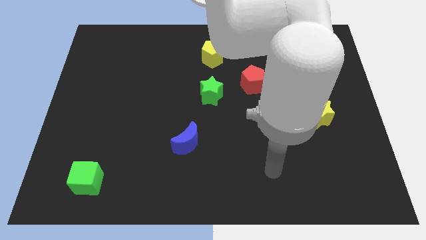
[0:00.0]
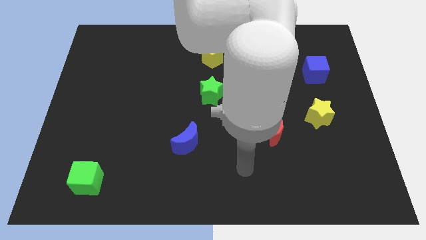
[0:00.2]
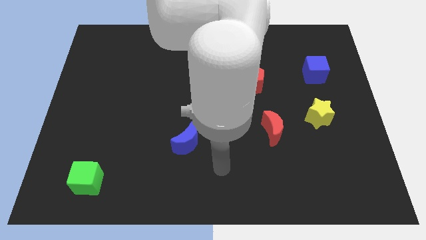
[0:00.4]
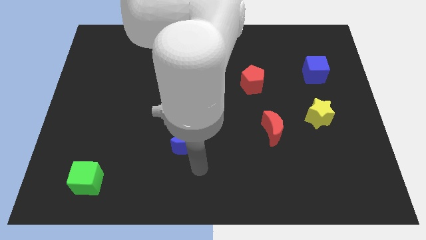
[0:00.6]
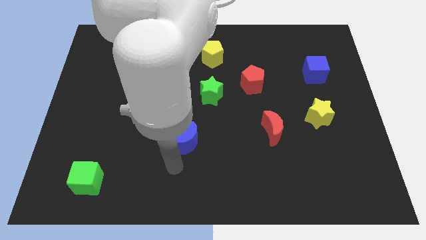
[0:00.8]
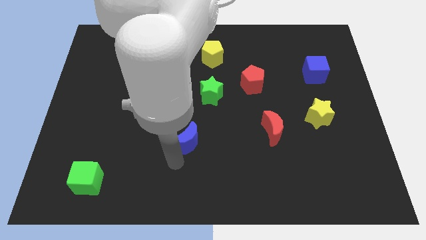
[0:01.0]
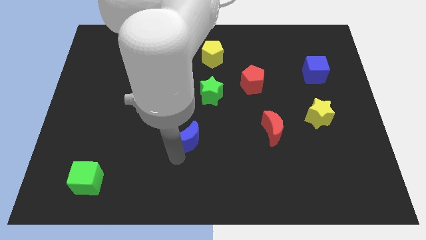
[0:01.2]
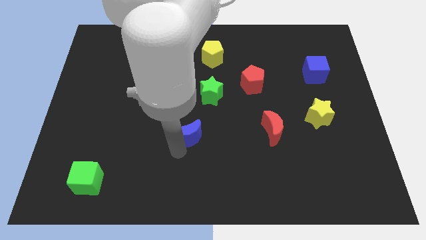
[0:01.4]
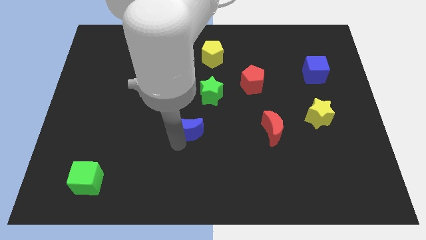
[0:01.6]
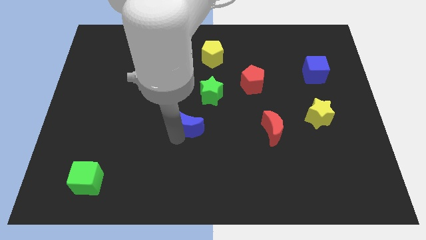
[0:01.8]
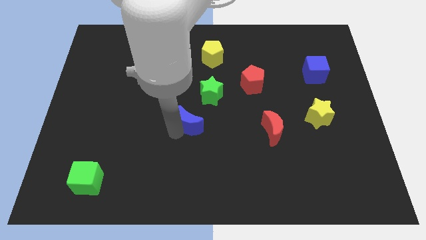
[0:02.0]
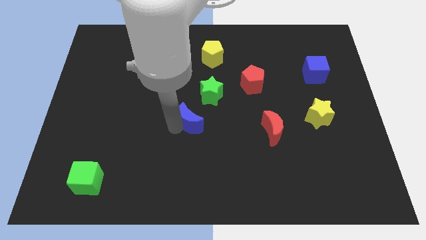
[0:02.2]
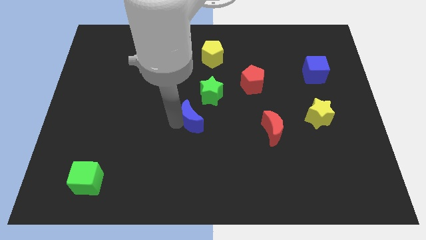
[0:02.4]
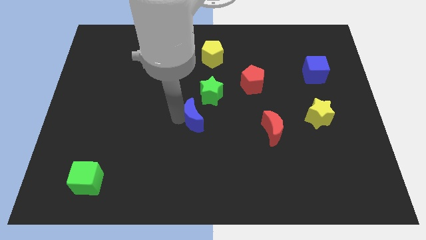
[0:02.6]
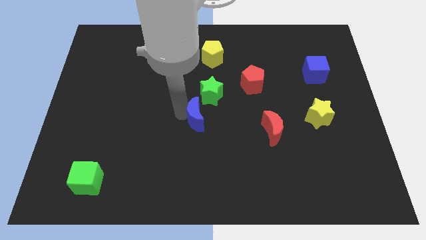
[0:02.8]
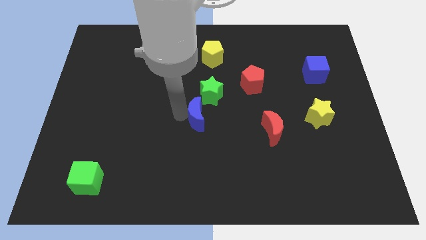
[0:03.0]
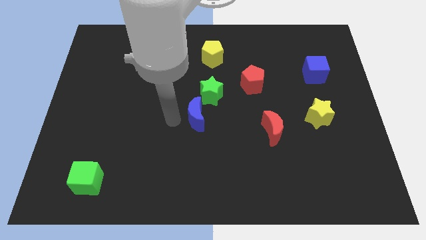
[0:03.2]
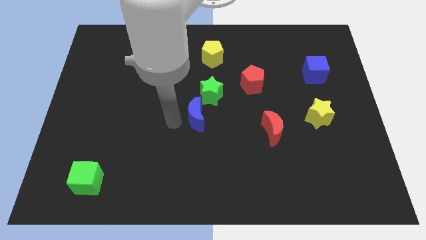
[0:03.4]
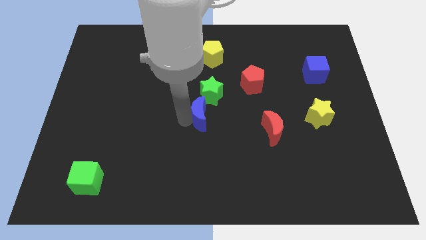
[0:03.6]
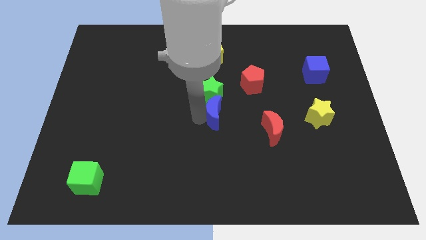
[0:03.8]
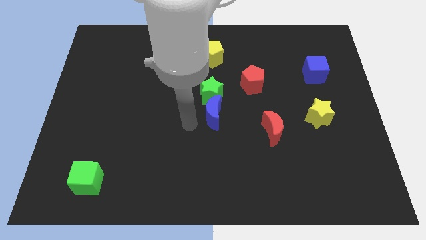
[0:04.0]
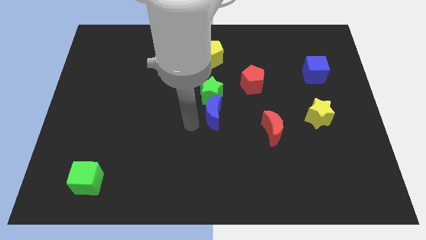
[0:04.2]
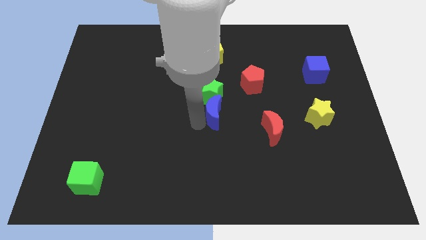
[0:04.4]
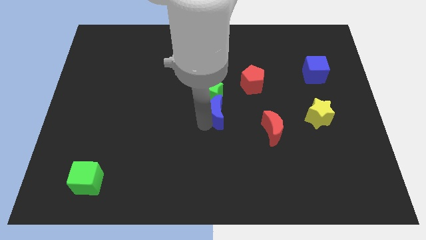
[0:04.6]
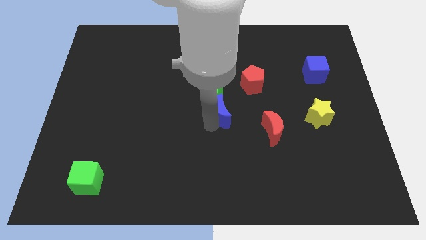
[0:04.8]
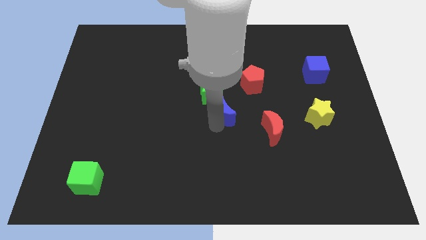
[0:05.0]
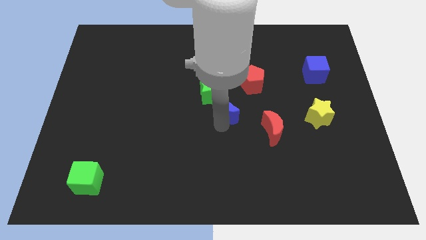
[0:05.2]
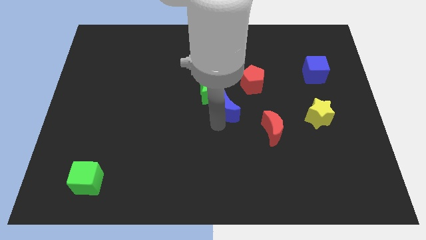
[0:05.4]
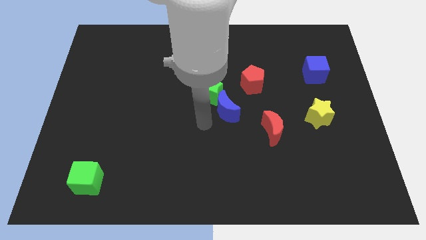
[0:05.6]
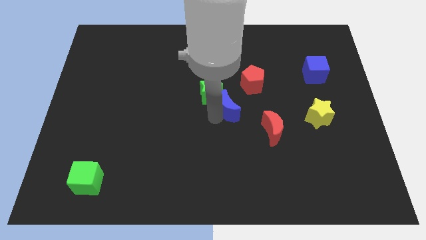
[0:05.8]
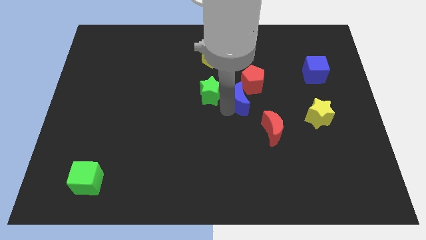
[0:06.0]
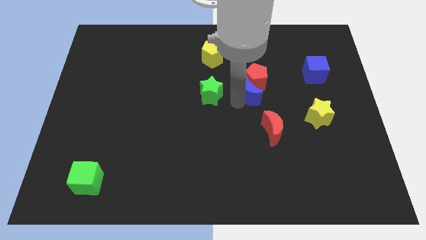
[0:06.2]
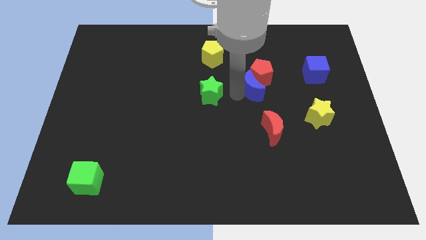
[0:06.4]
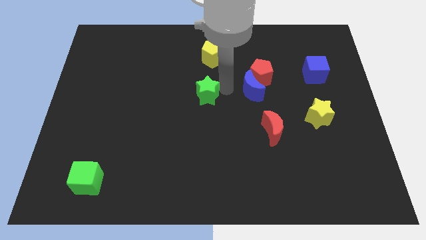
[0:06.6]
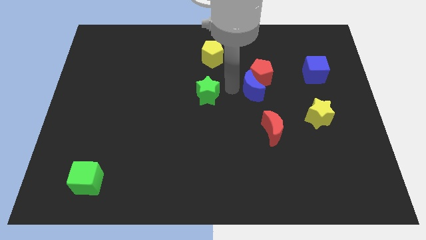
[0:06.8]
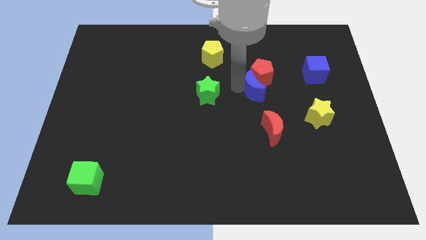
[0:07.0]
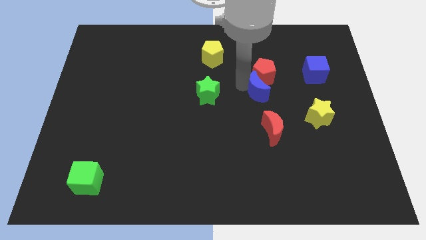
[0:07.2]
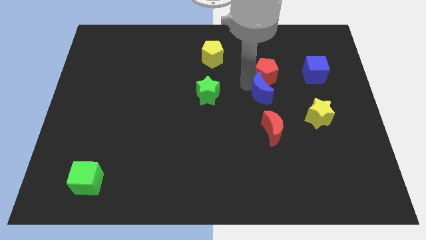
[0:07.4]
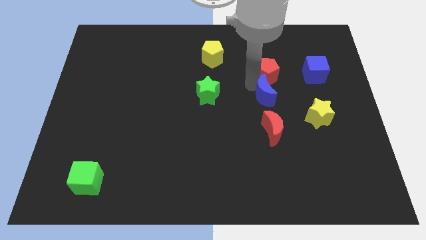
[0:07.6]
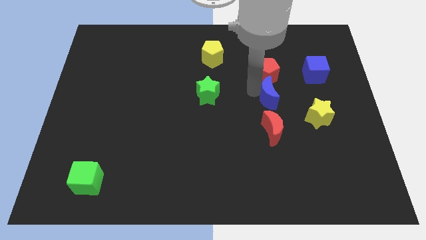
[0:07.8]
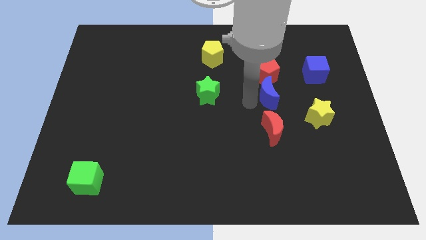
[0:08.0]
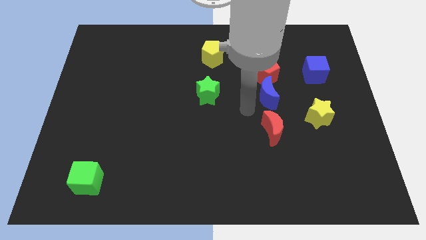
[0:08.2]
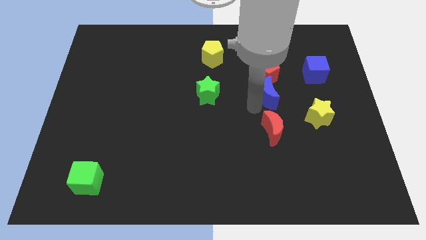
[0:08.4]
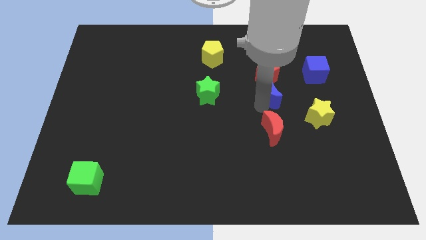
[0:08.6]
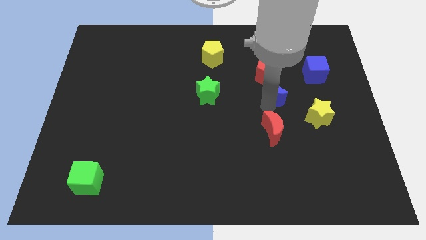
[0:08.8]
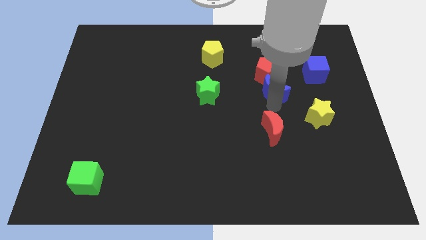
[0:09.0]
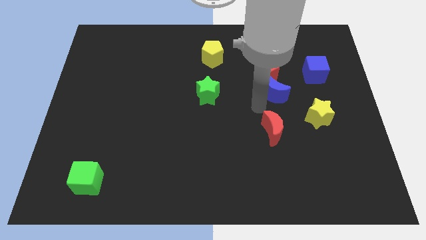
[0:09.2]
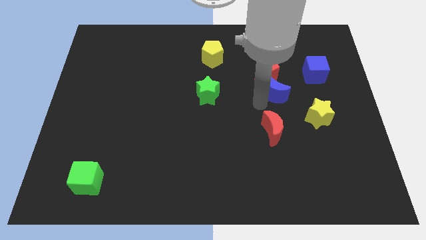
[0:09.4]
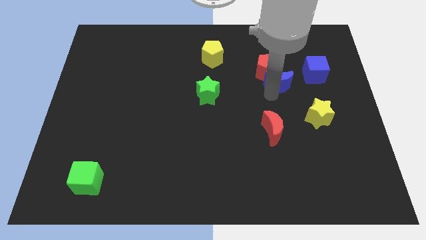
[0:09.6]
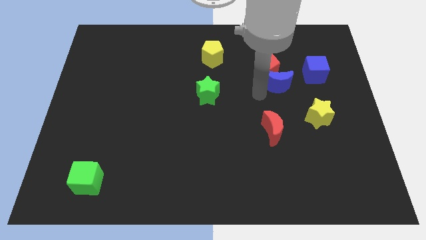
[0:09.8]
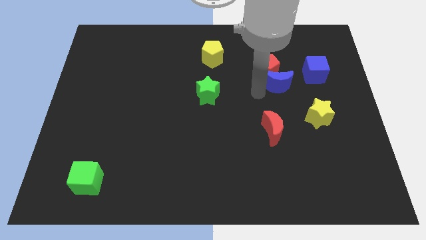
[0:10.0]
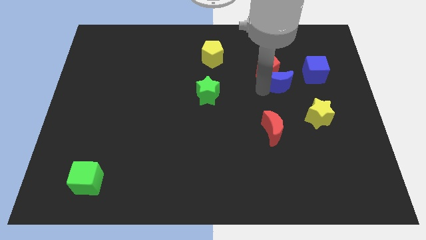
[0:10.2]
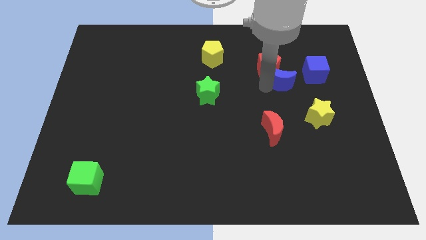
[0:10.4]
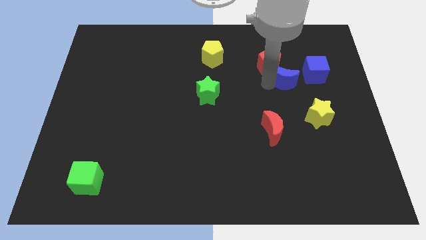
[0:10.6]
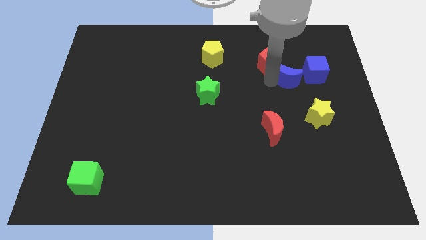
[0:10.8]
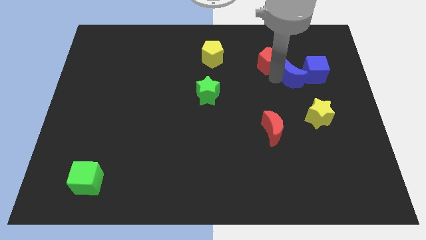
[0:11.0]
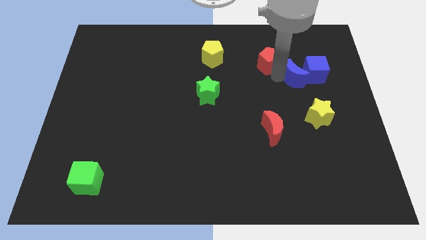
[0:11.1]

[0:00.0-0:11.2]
move the blue moon towards the blue cube

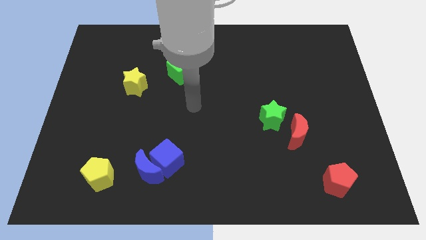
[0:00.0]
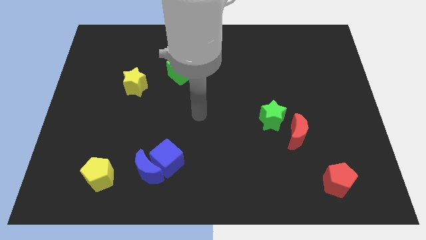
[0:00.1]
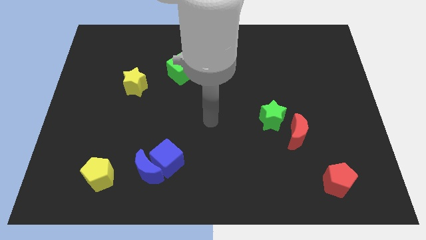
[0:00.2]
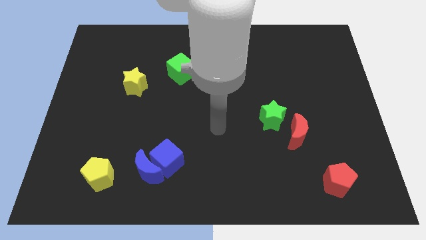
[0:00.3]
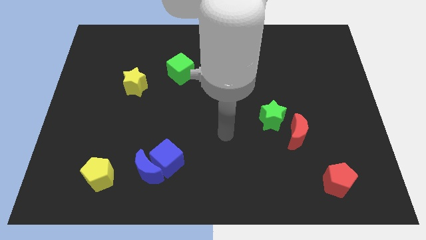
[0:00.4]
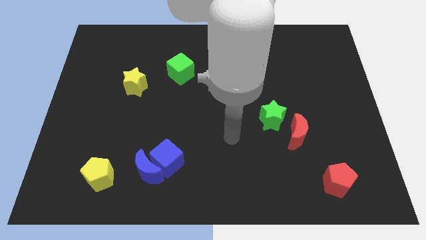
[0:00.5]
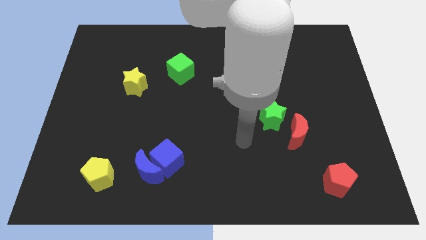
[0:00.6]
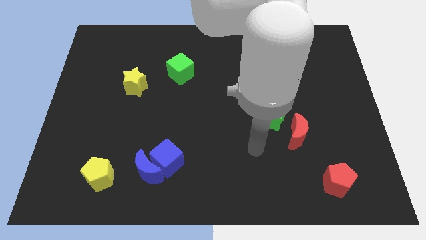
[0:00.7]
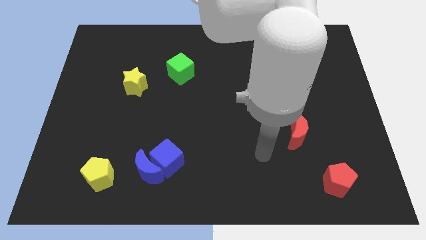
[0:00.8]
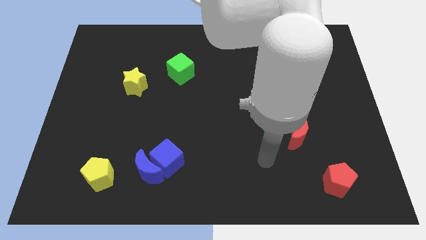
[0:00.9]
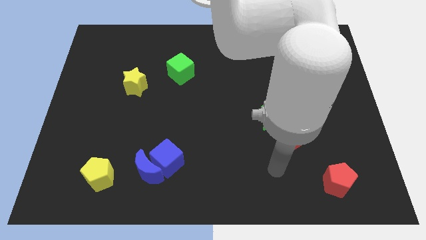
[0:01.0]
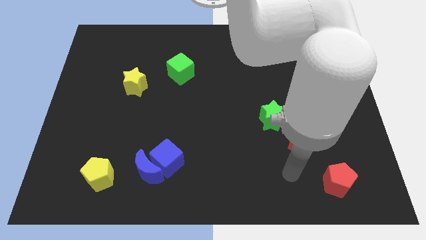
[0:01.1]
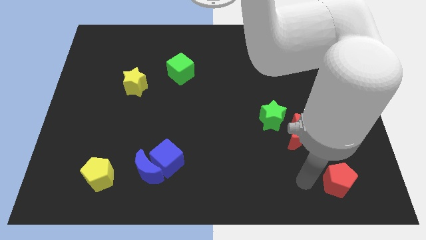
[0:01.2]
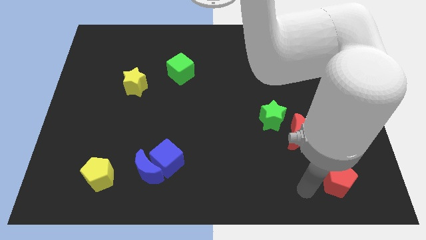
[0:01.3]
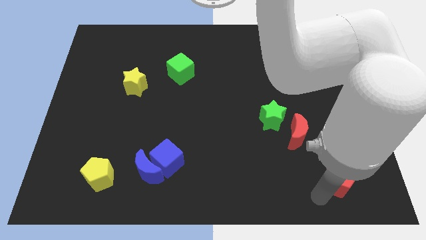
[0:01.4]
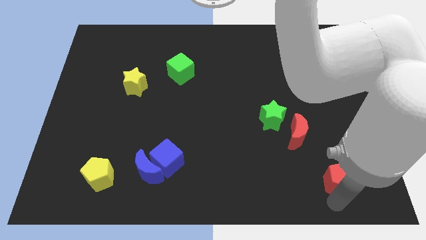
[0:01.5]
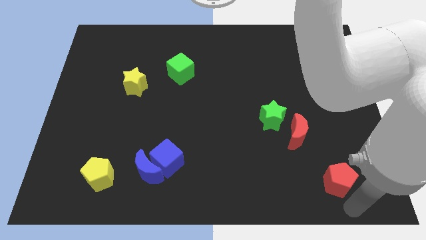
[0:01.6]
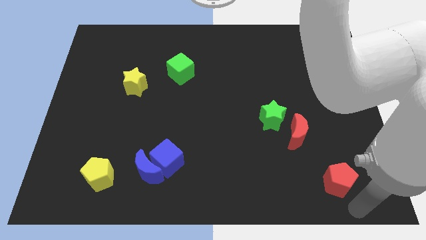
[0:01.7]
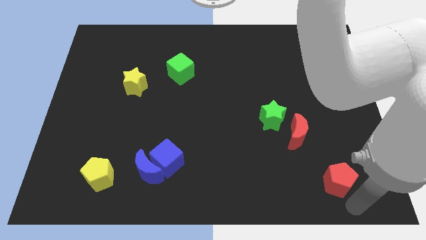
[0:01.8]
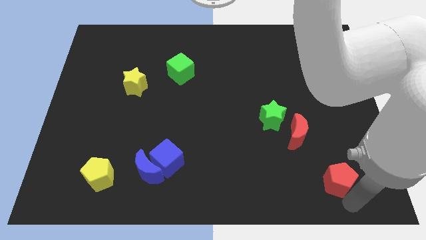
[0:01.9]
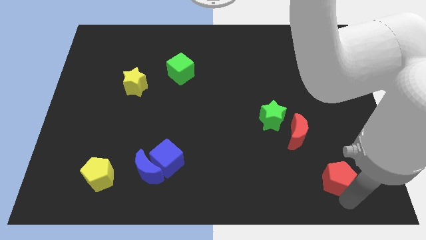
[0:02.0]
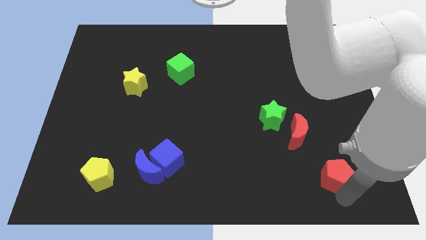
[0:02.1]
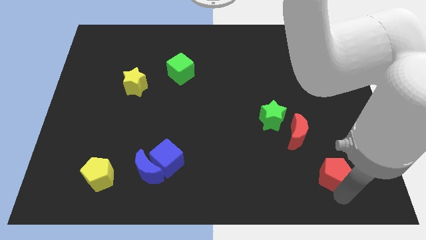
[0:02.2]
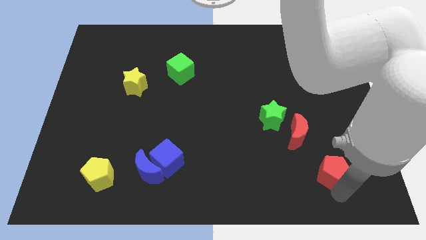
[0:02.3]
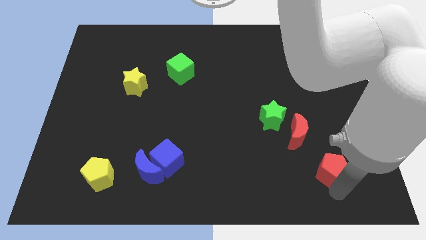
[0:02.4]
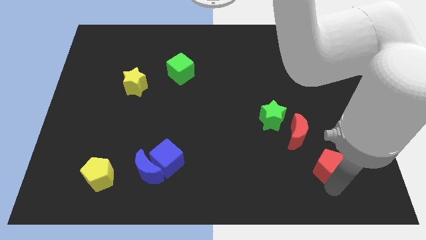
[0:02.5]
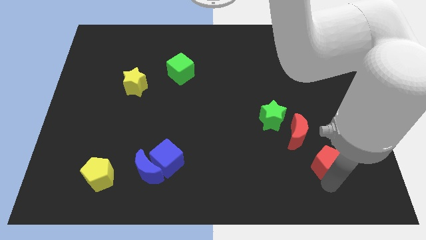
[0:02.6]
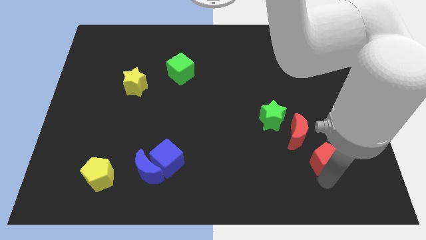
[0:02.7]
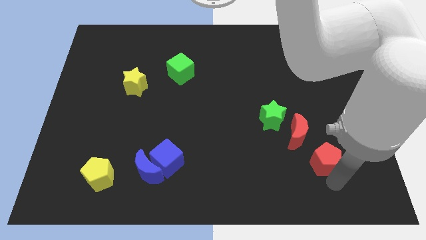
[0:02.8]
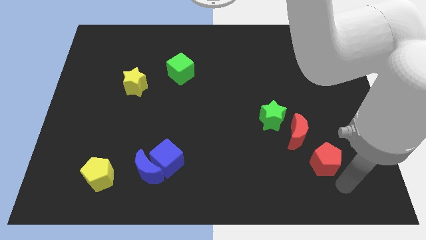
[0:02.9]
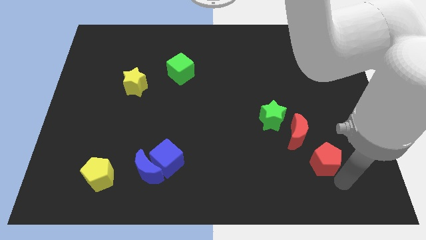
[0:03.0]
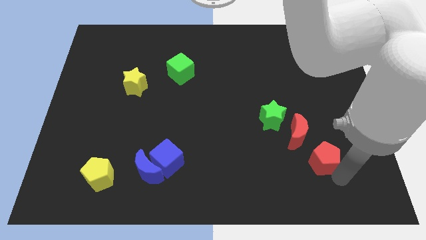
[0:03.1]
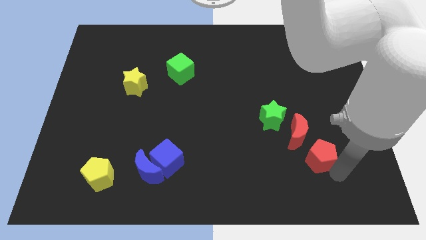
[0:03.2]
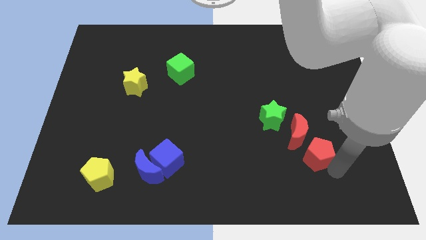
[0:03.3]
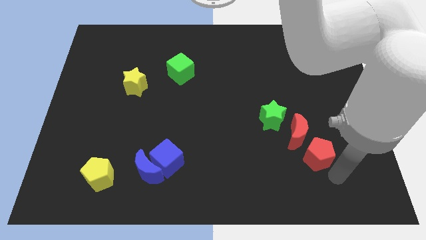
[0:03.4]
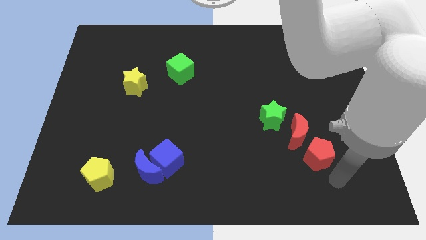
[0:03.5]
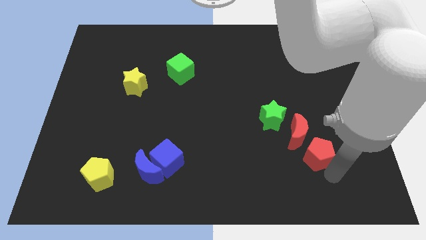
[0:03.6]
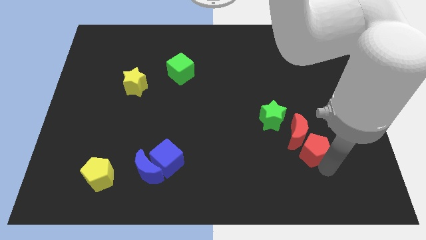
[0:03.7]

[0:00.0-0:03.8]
put the red pentagon towards the red moon
